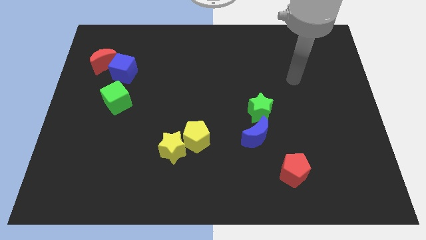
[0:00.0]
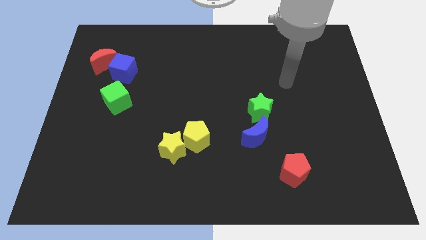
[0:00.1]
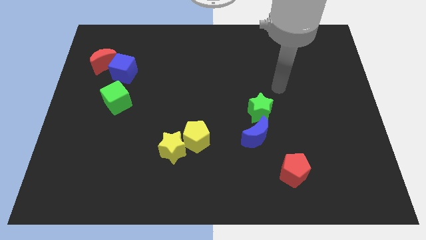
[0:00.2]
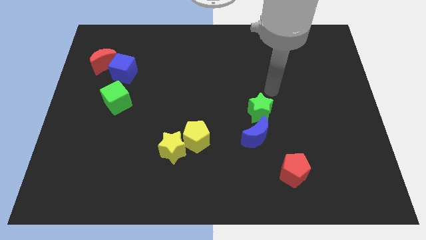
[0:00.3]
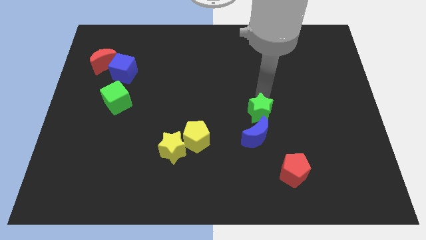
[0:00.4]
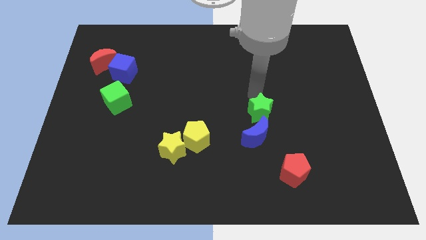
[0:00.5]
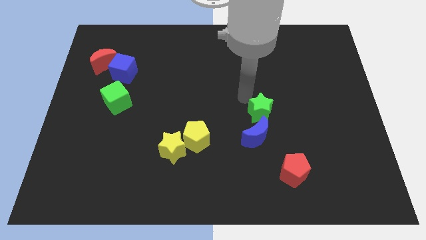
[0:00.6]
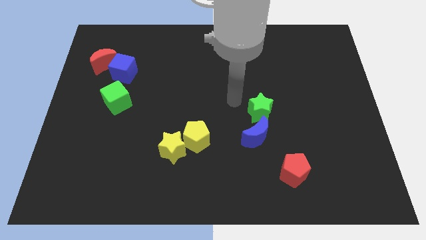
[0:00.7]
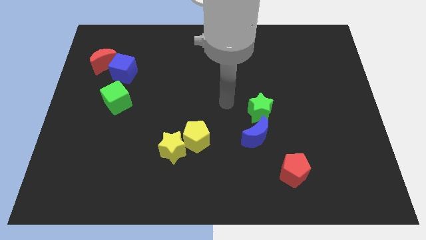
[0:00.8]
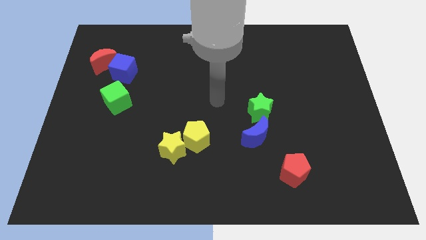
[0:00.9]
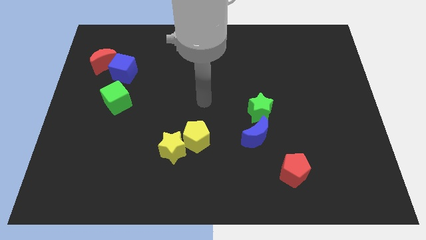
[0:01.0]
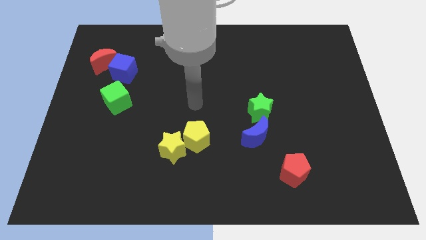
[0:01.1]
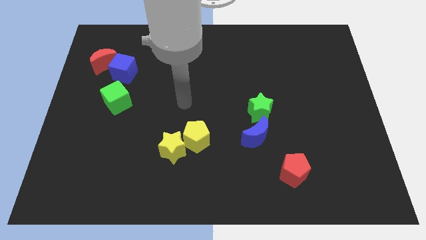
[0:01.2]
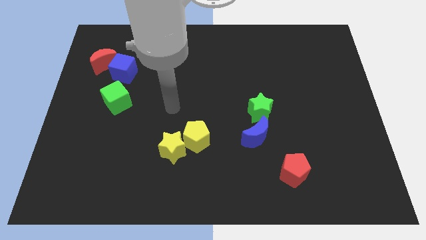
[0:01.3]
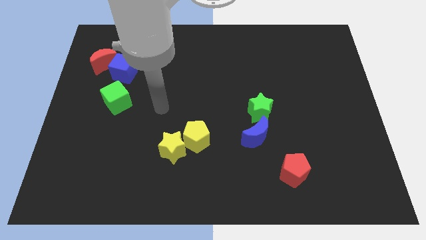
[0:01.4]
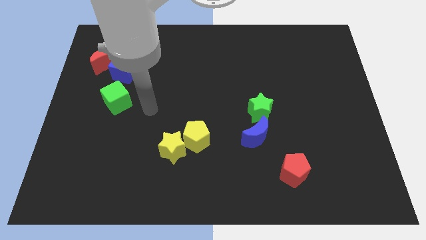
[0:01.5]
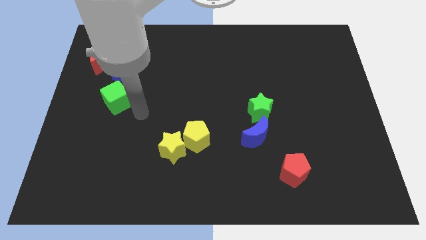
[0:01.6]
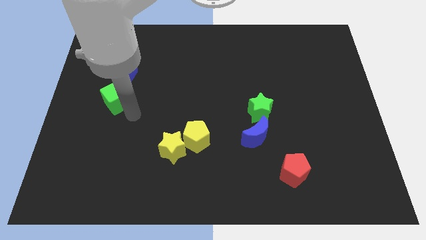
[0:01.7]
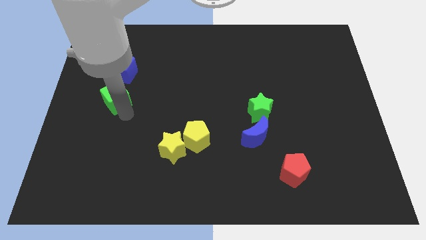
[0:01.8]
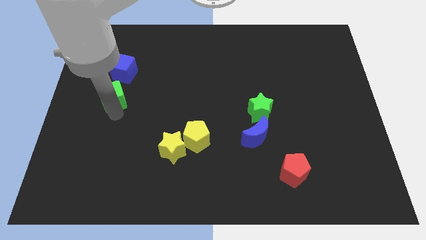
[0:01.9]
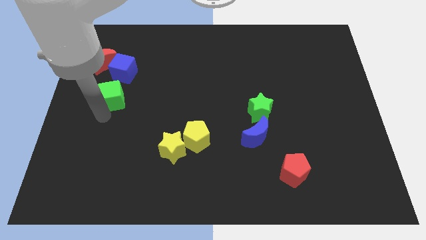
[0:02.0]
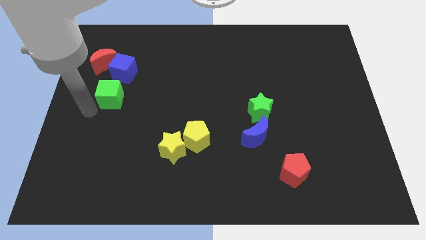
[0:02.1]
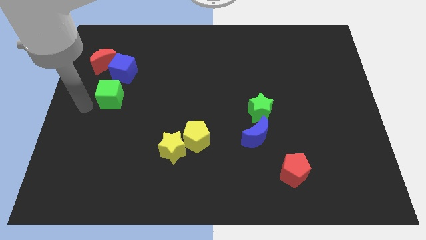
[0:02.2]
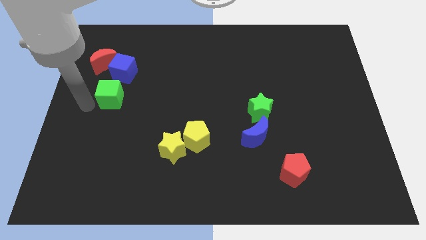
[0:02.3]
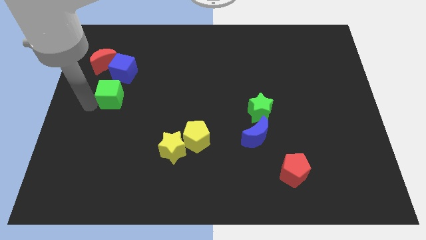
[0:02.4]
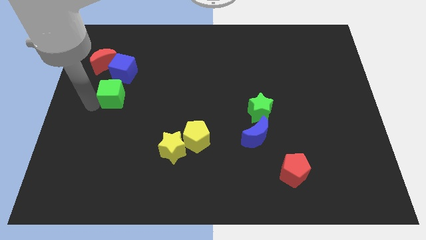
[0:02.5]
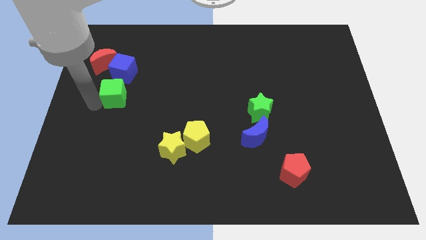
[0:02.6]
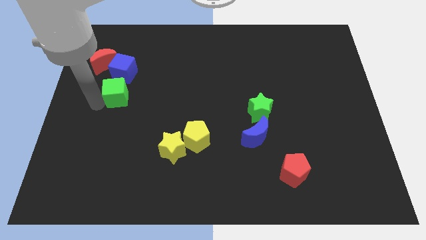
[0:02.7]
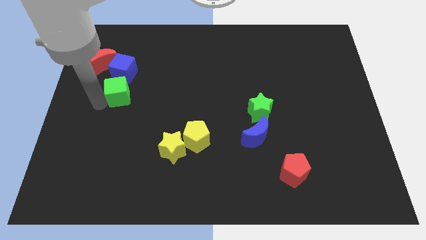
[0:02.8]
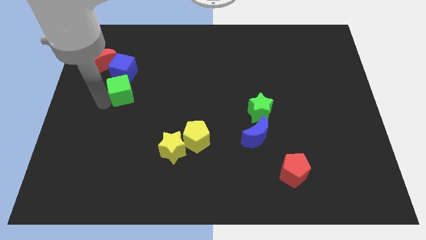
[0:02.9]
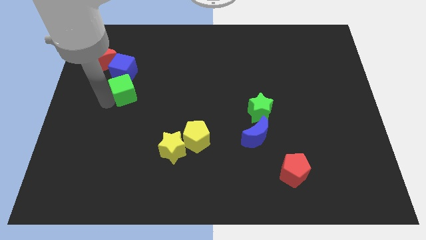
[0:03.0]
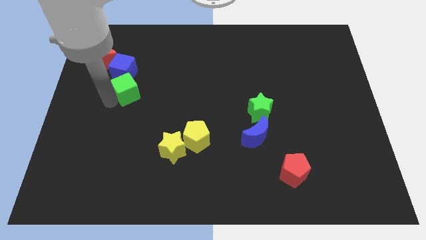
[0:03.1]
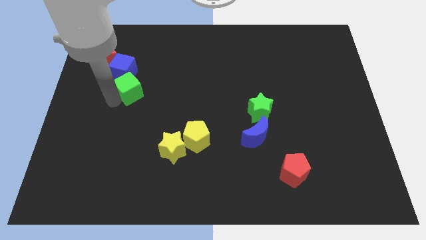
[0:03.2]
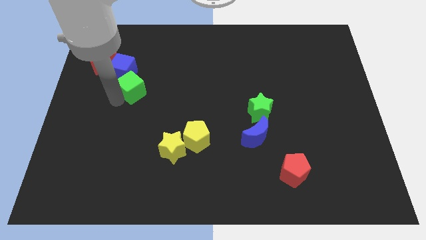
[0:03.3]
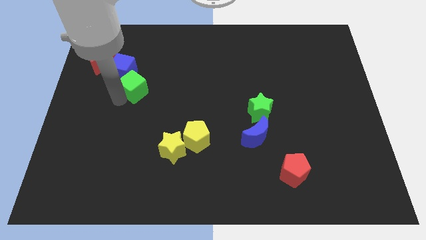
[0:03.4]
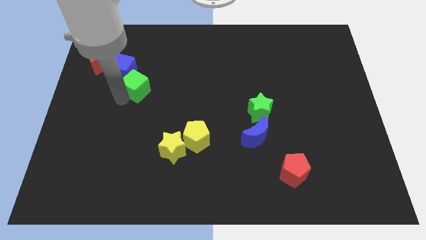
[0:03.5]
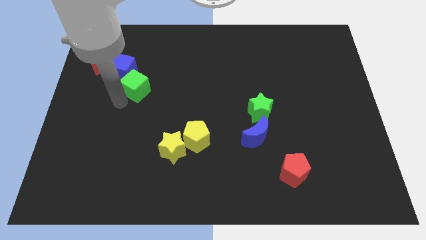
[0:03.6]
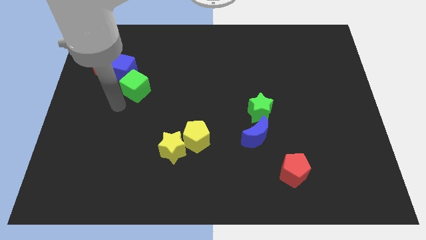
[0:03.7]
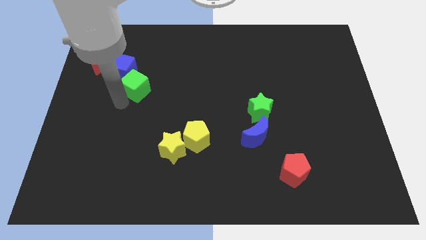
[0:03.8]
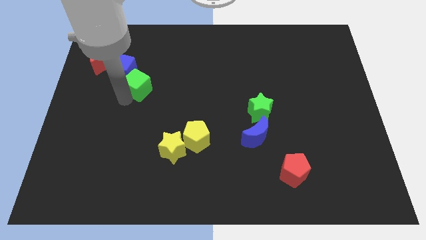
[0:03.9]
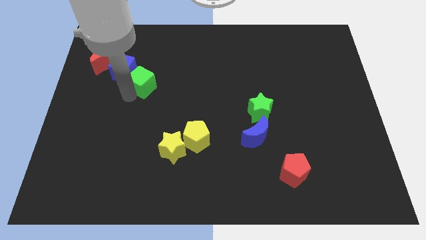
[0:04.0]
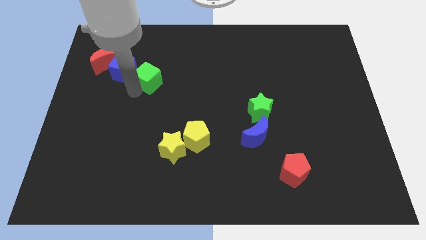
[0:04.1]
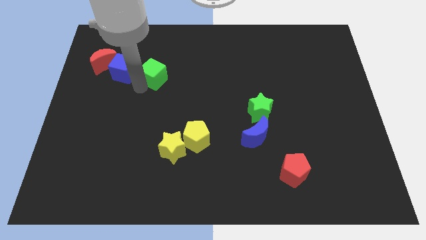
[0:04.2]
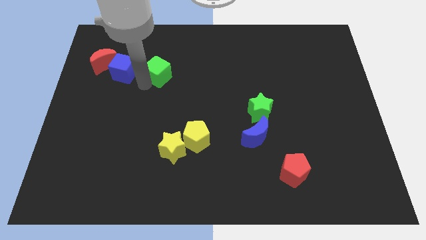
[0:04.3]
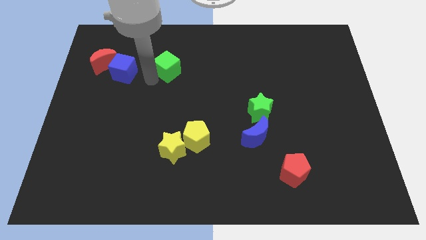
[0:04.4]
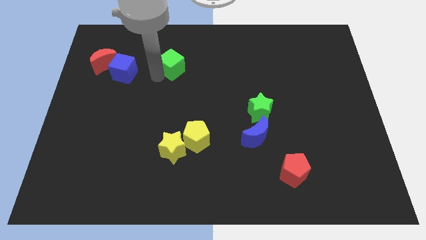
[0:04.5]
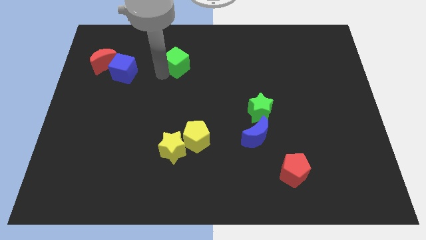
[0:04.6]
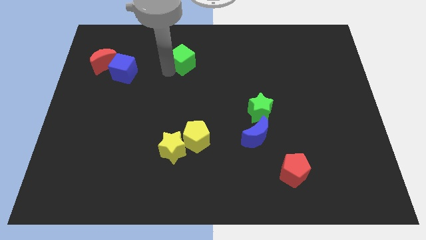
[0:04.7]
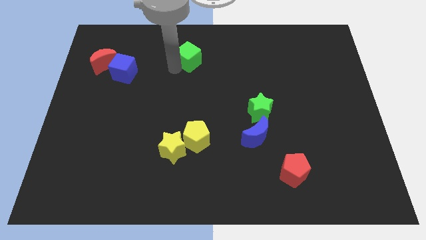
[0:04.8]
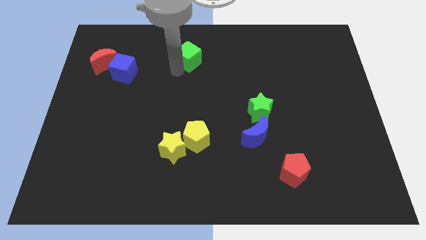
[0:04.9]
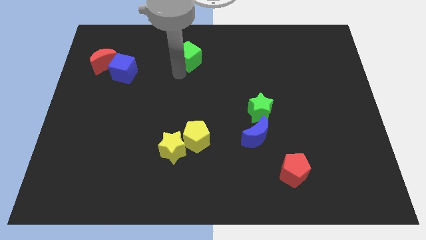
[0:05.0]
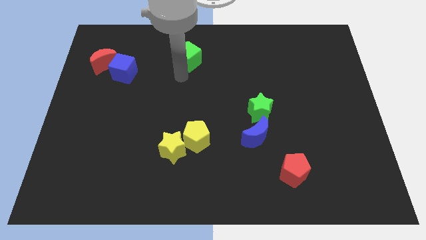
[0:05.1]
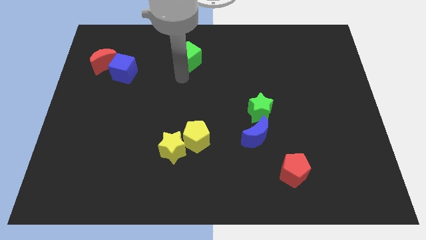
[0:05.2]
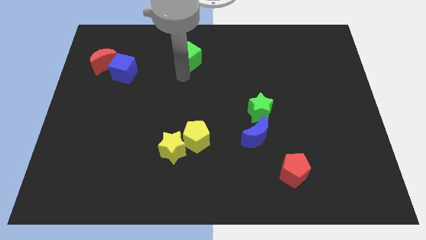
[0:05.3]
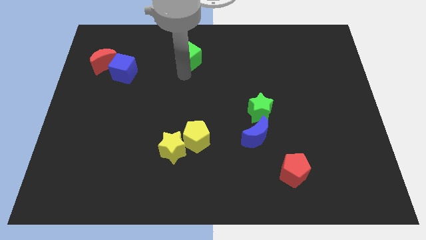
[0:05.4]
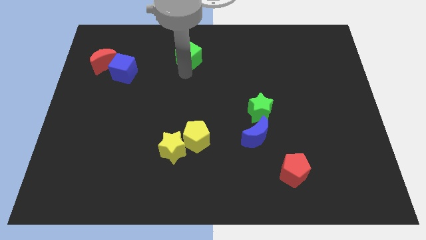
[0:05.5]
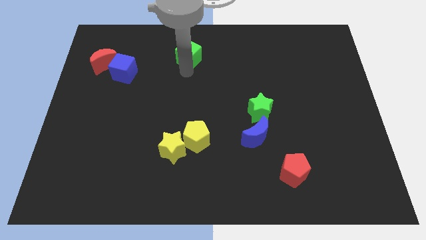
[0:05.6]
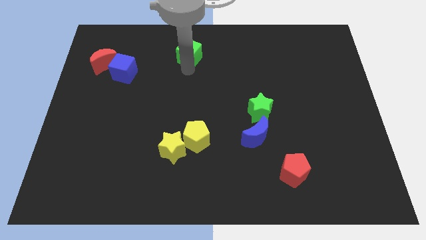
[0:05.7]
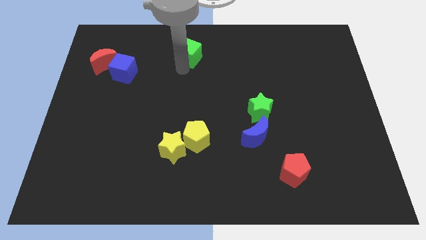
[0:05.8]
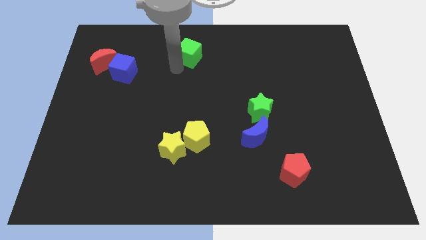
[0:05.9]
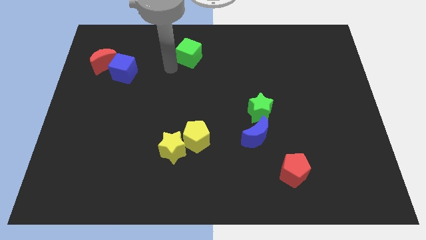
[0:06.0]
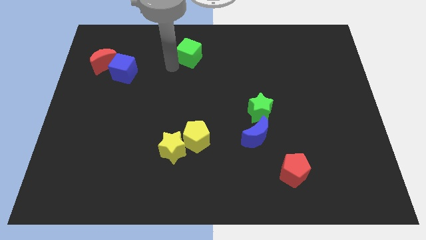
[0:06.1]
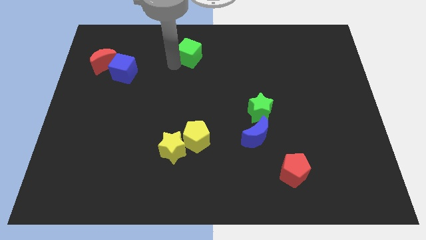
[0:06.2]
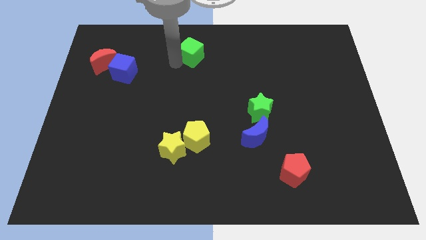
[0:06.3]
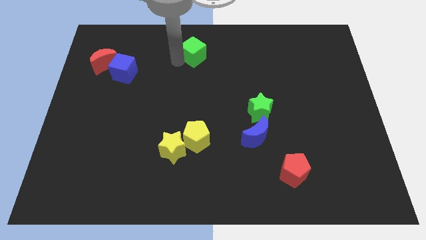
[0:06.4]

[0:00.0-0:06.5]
move the green cube to the towards your base

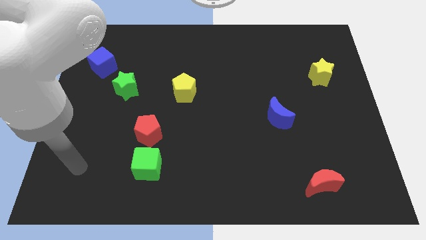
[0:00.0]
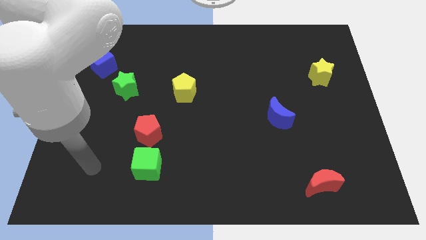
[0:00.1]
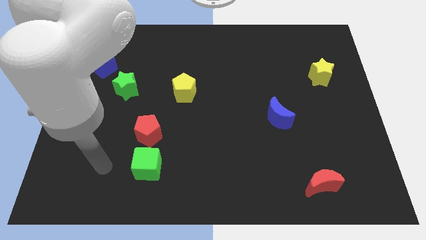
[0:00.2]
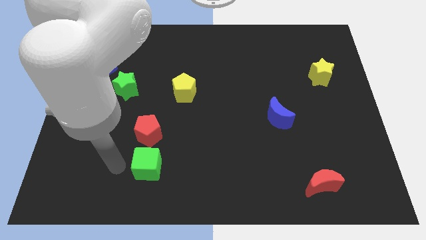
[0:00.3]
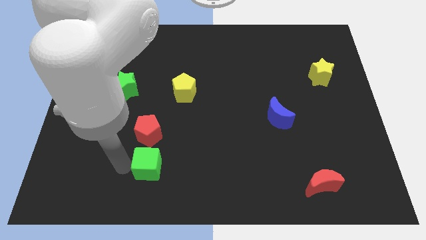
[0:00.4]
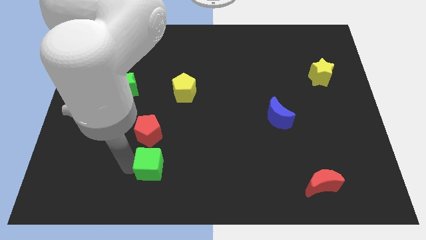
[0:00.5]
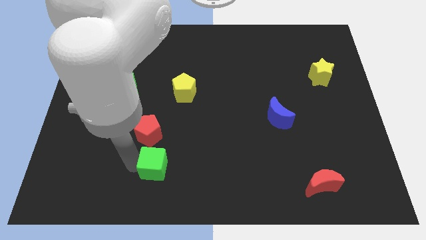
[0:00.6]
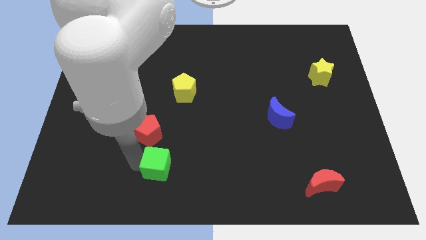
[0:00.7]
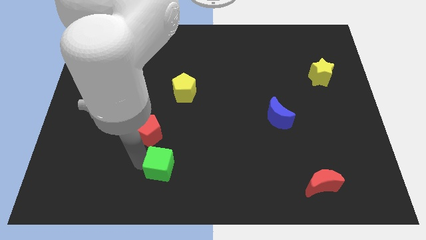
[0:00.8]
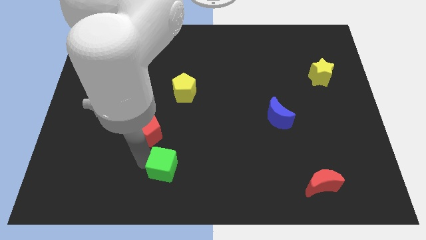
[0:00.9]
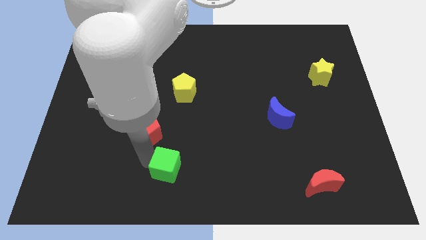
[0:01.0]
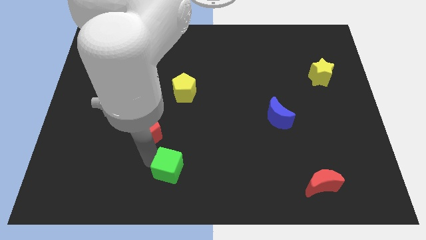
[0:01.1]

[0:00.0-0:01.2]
put the green cube to the bottom
